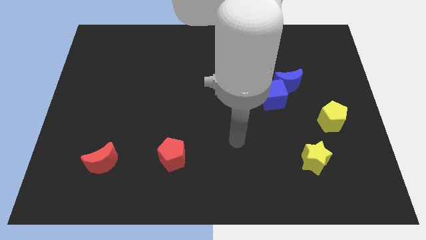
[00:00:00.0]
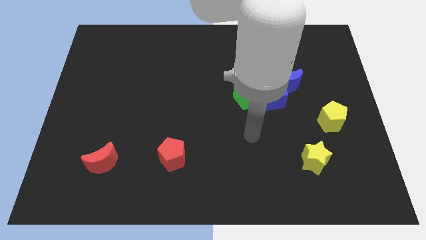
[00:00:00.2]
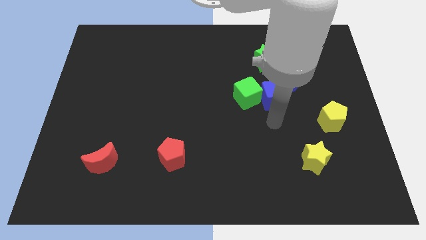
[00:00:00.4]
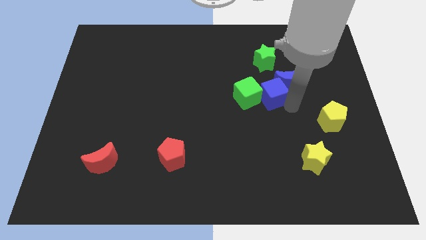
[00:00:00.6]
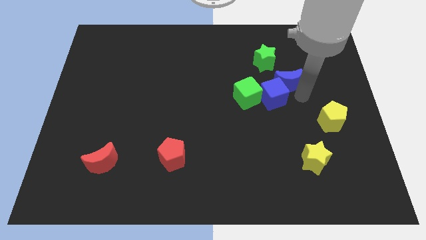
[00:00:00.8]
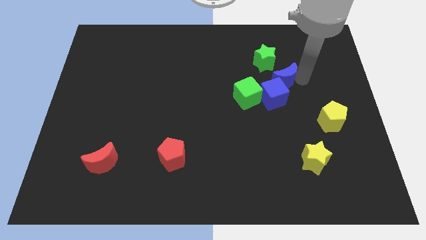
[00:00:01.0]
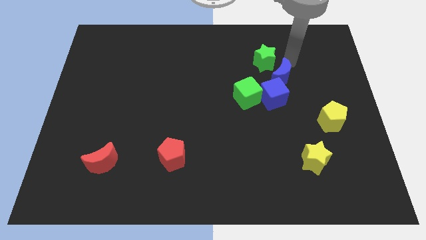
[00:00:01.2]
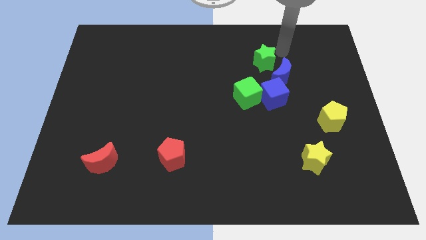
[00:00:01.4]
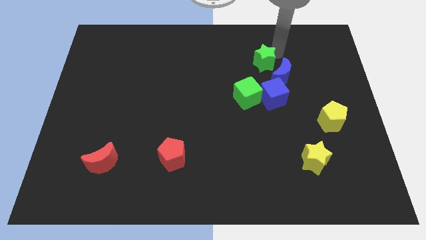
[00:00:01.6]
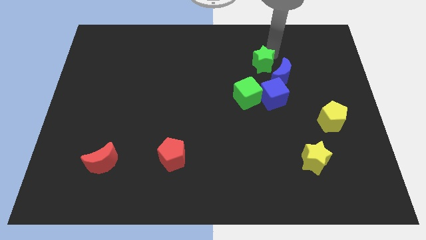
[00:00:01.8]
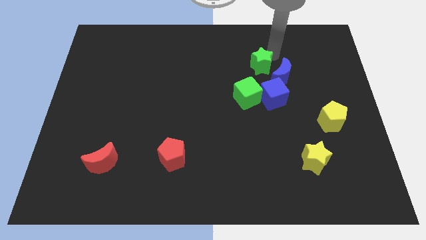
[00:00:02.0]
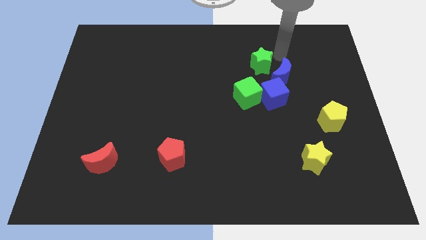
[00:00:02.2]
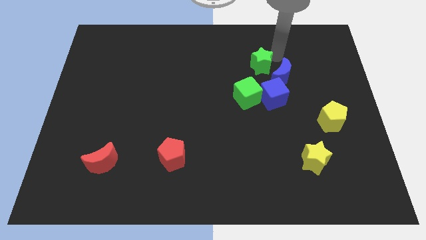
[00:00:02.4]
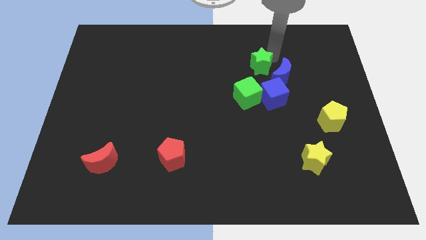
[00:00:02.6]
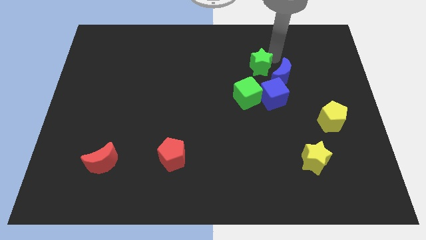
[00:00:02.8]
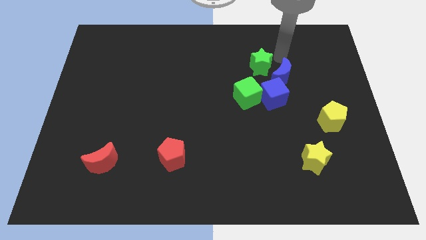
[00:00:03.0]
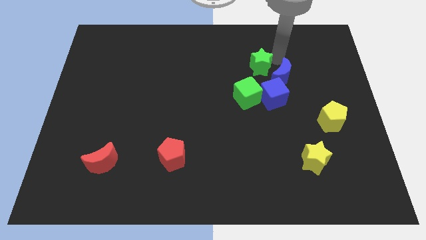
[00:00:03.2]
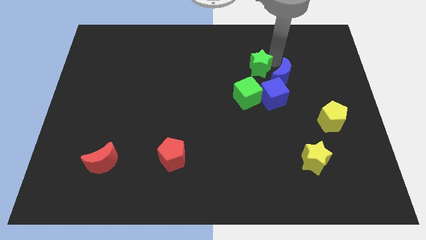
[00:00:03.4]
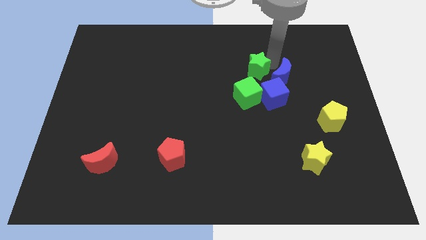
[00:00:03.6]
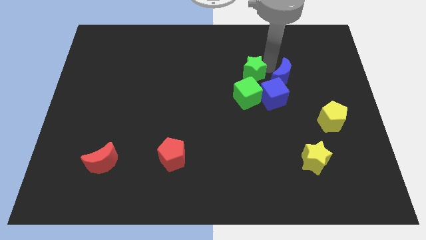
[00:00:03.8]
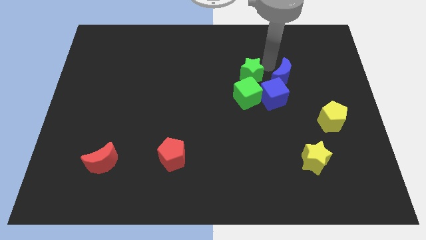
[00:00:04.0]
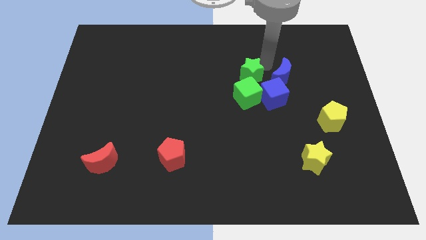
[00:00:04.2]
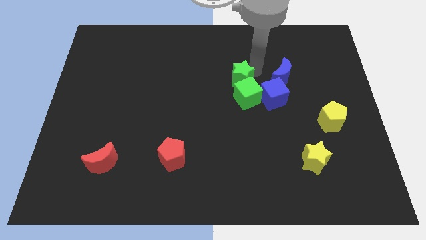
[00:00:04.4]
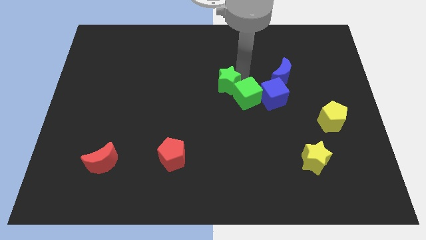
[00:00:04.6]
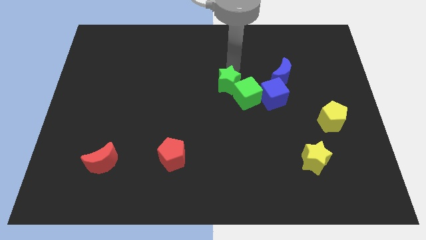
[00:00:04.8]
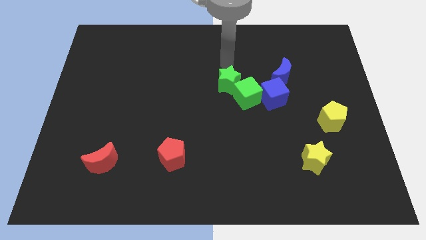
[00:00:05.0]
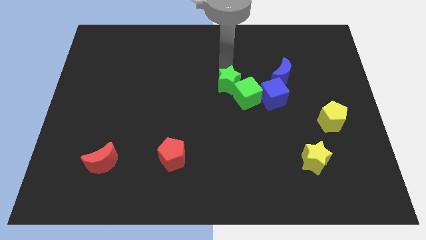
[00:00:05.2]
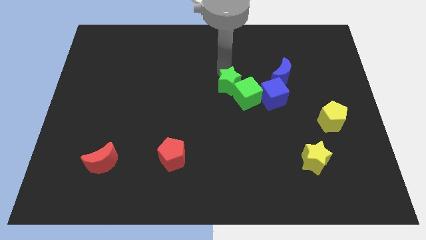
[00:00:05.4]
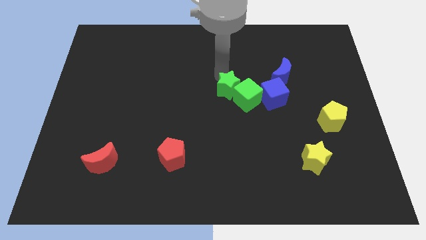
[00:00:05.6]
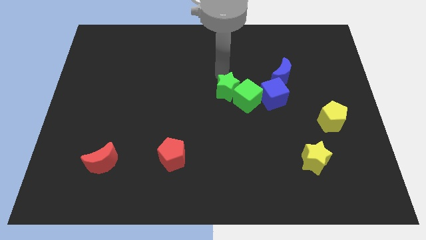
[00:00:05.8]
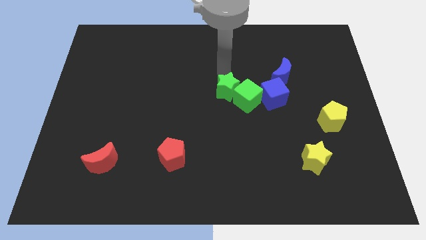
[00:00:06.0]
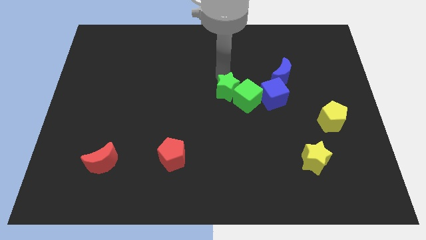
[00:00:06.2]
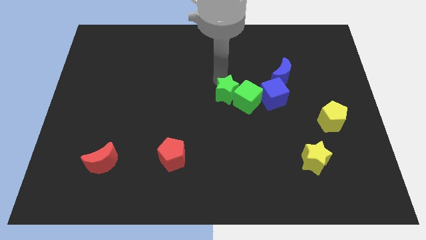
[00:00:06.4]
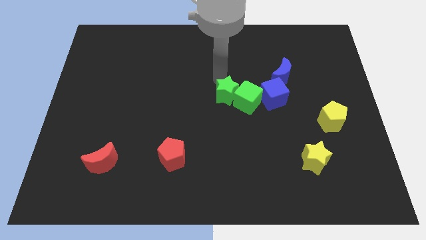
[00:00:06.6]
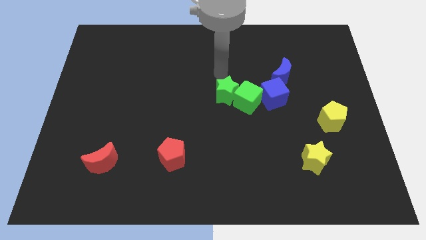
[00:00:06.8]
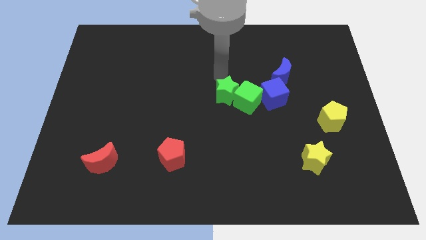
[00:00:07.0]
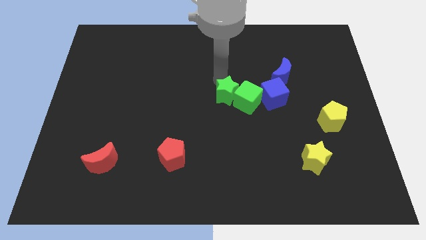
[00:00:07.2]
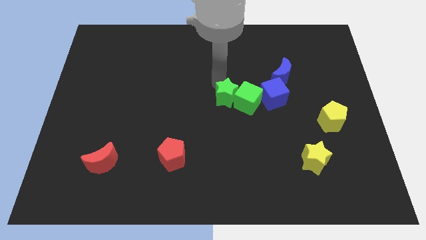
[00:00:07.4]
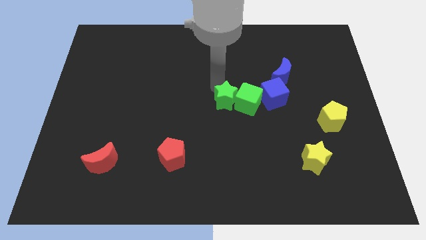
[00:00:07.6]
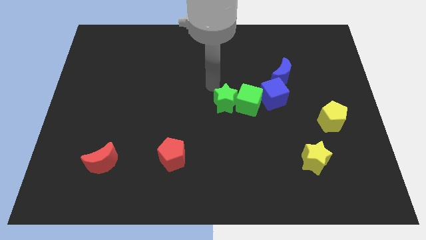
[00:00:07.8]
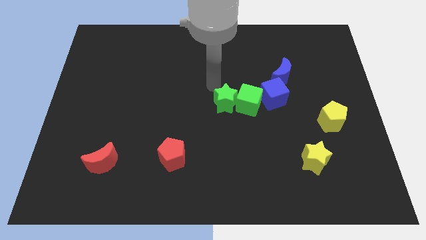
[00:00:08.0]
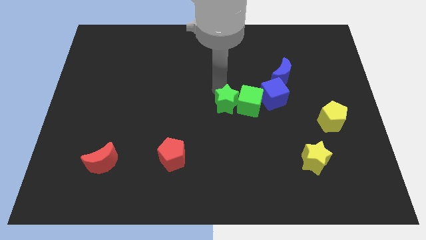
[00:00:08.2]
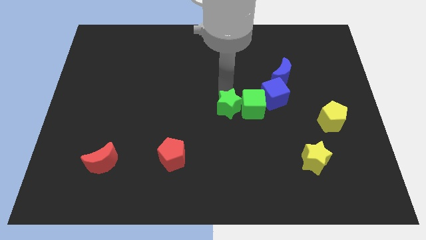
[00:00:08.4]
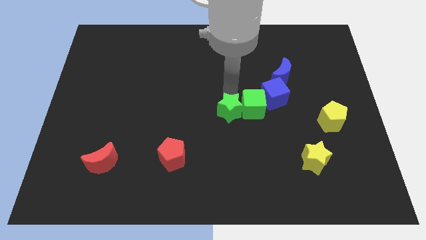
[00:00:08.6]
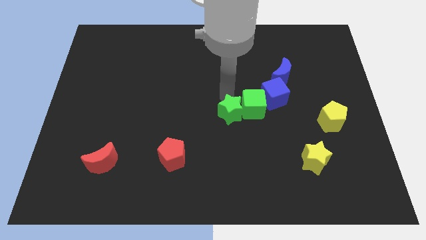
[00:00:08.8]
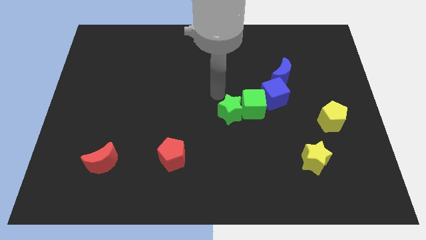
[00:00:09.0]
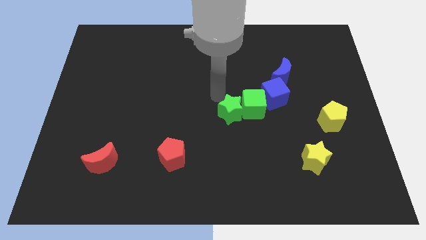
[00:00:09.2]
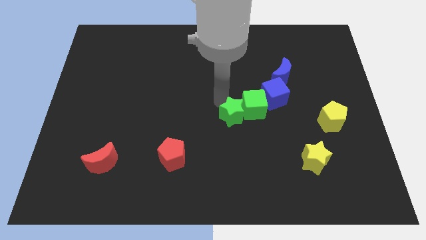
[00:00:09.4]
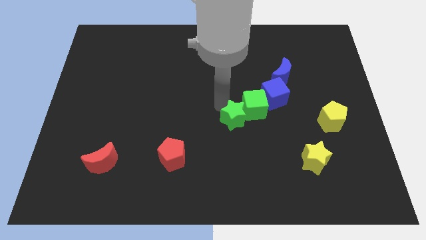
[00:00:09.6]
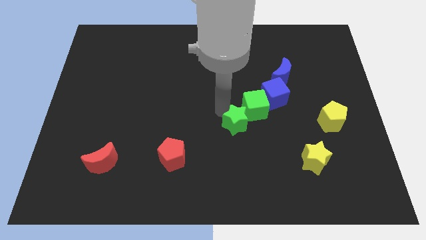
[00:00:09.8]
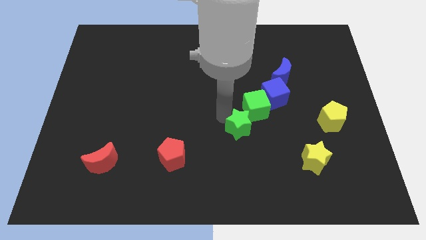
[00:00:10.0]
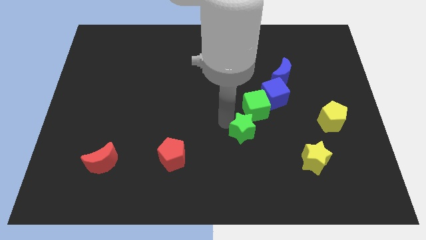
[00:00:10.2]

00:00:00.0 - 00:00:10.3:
move the green star downwards

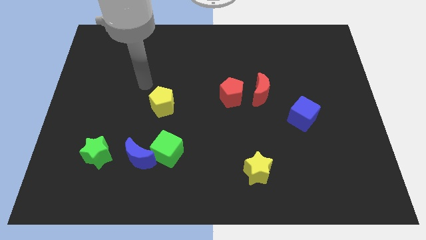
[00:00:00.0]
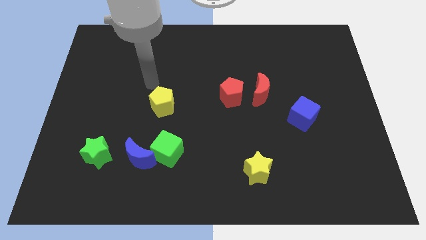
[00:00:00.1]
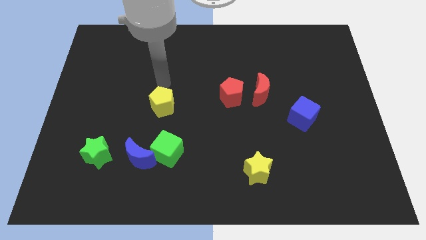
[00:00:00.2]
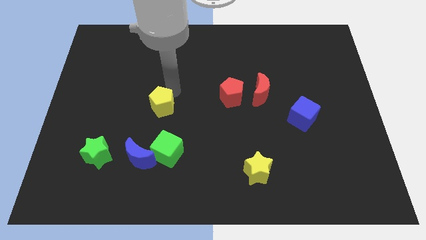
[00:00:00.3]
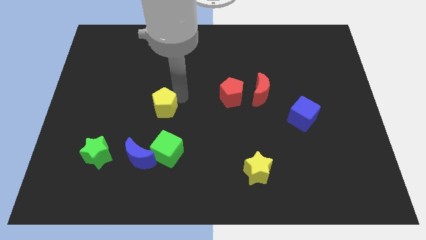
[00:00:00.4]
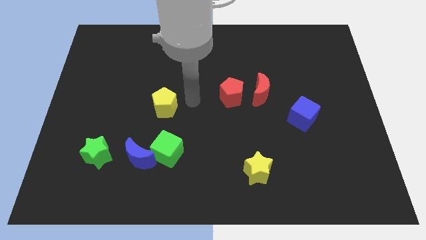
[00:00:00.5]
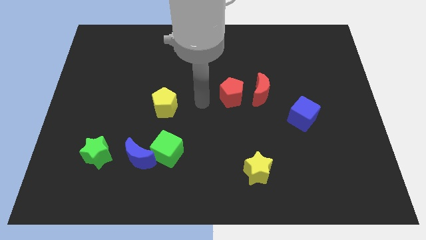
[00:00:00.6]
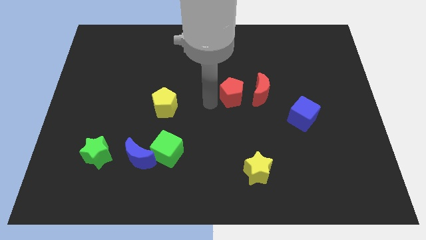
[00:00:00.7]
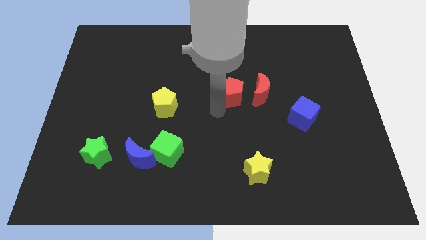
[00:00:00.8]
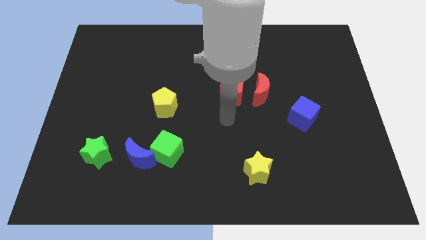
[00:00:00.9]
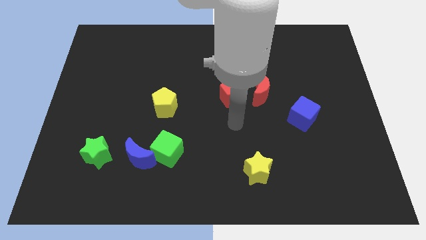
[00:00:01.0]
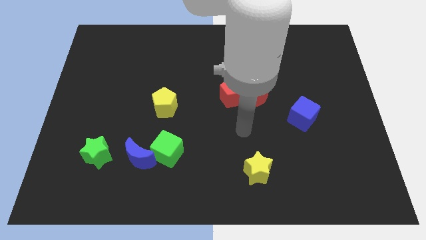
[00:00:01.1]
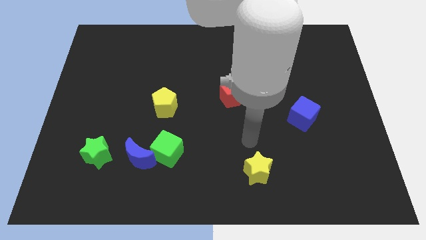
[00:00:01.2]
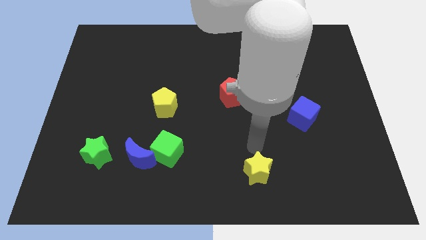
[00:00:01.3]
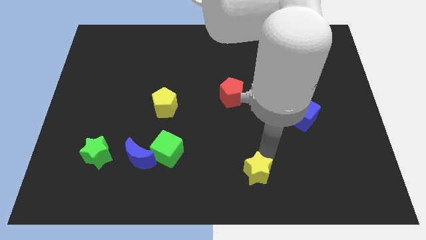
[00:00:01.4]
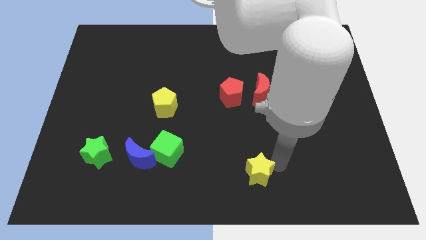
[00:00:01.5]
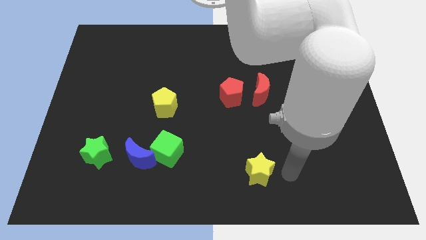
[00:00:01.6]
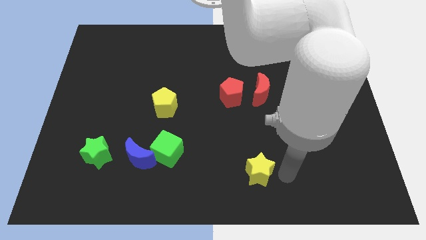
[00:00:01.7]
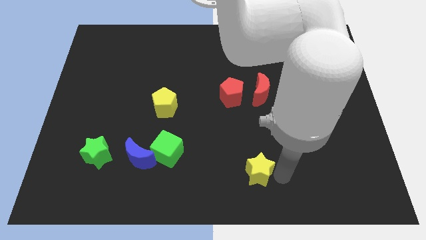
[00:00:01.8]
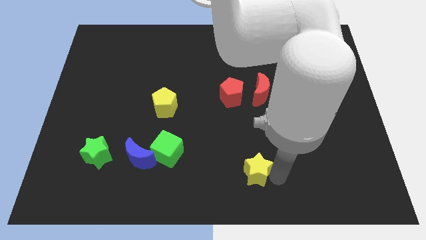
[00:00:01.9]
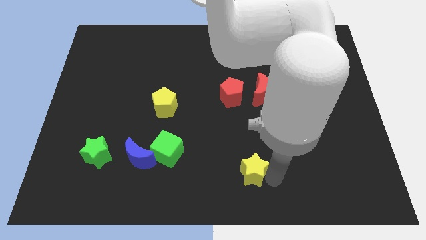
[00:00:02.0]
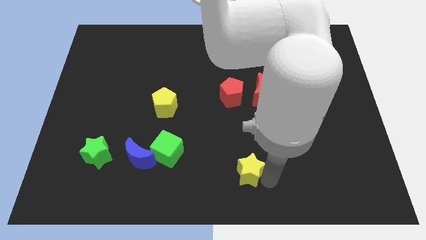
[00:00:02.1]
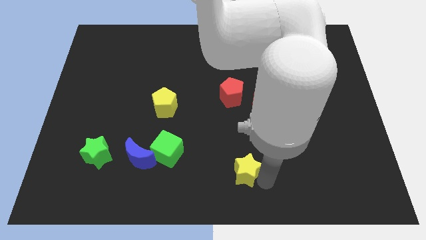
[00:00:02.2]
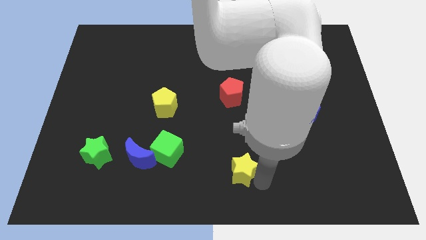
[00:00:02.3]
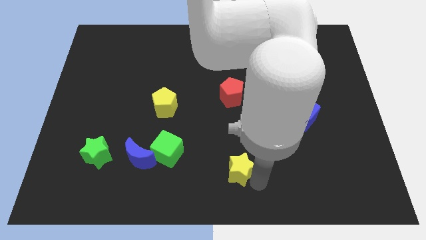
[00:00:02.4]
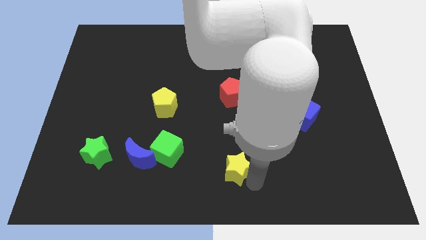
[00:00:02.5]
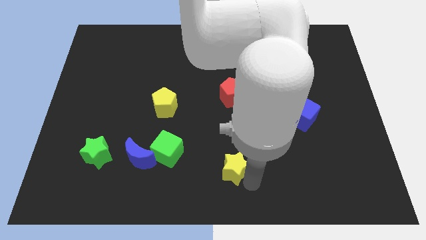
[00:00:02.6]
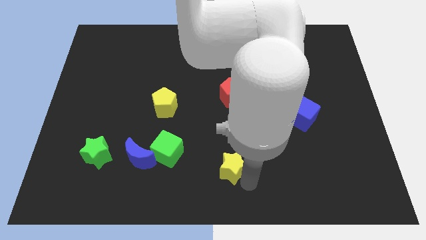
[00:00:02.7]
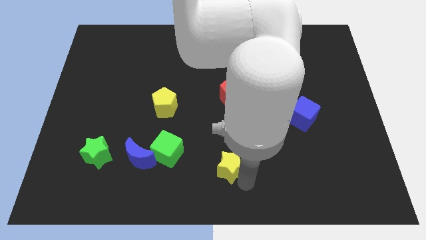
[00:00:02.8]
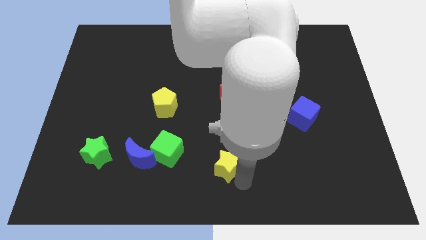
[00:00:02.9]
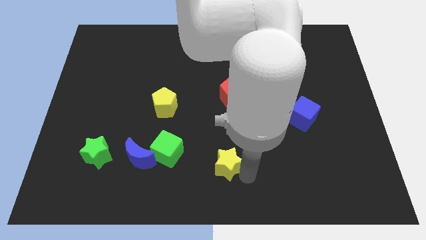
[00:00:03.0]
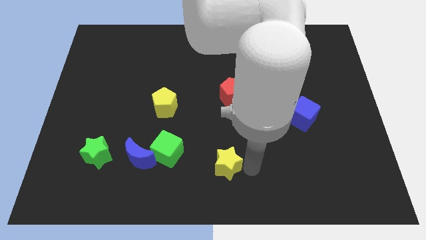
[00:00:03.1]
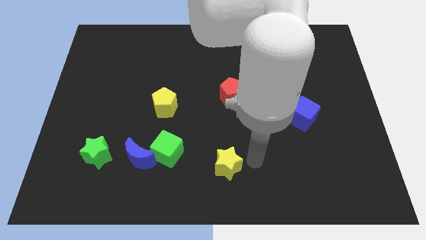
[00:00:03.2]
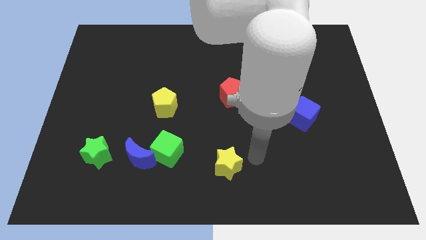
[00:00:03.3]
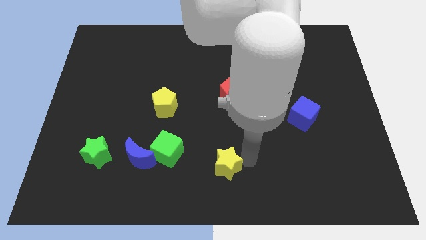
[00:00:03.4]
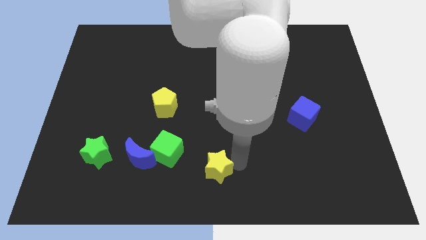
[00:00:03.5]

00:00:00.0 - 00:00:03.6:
slightly slide the yellow star to the left
